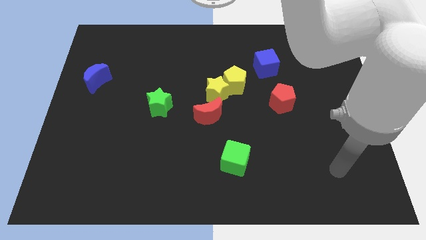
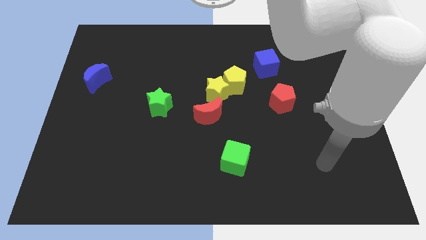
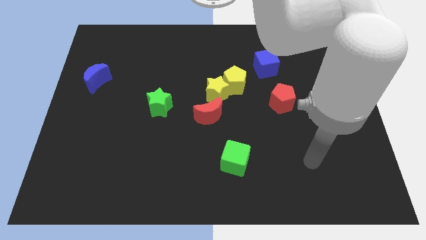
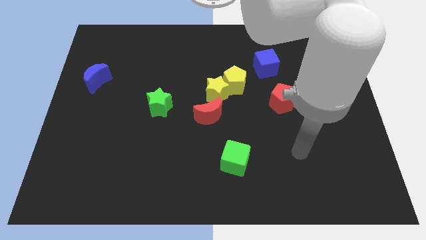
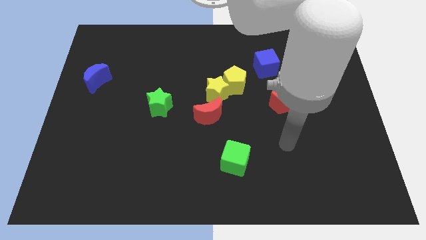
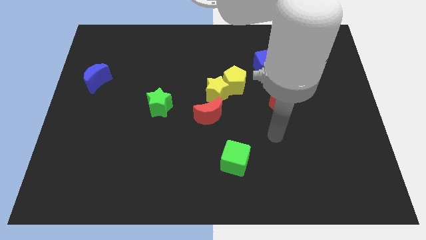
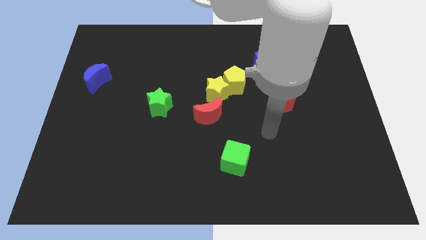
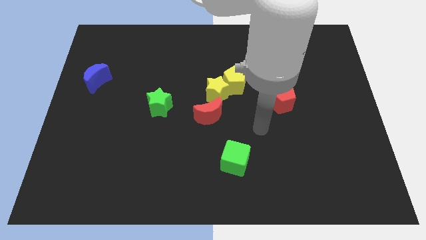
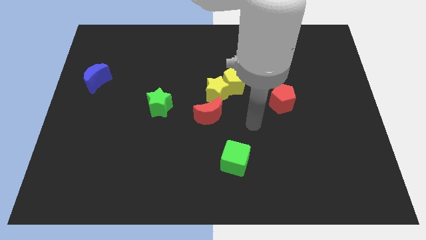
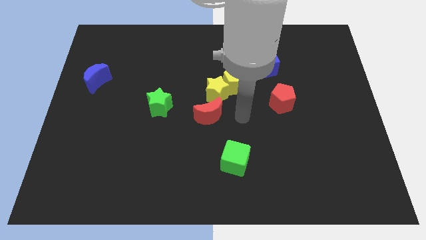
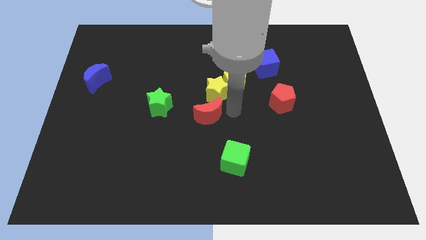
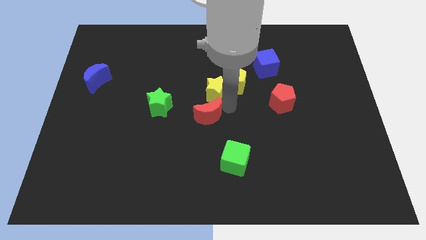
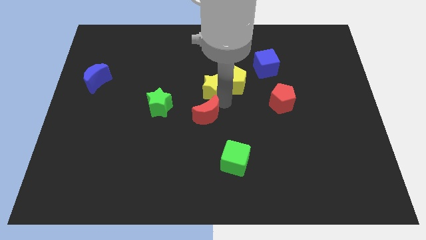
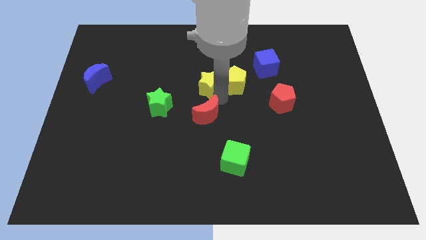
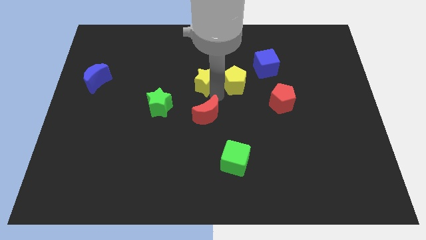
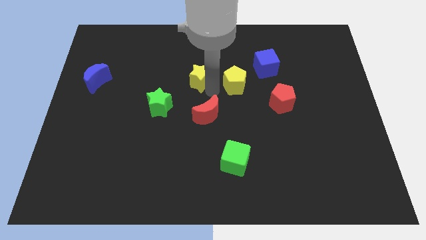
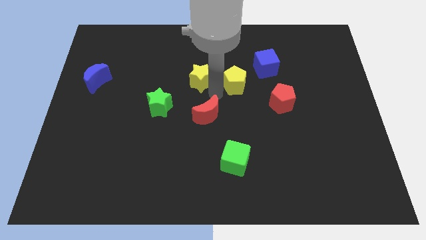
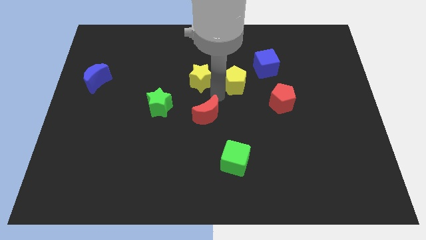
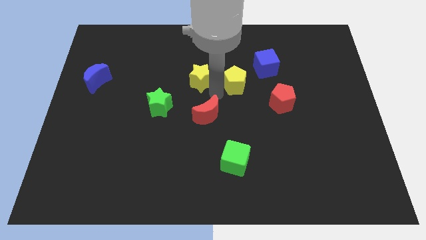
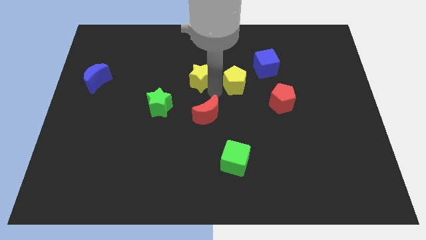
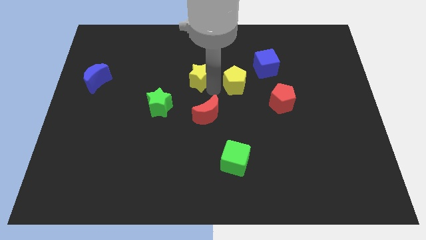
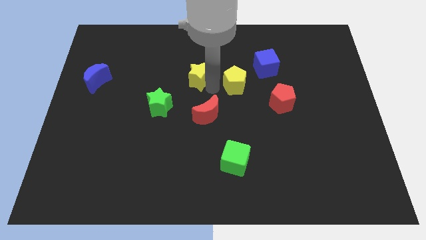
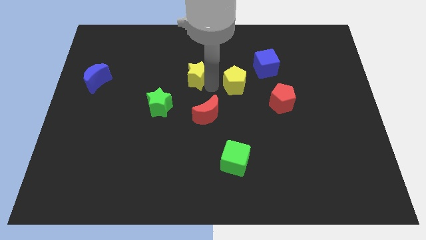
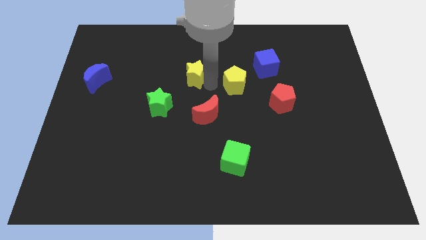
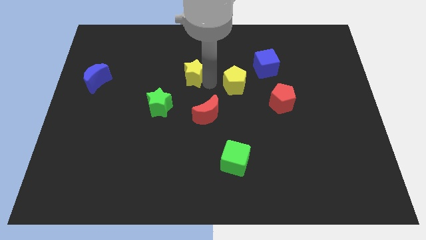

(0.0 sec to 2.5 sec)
separate the yellow star from the yellow pentagon and red moon

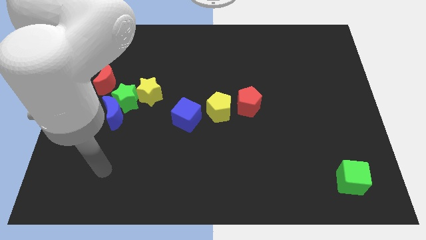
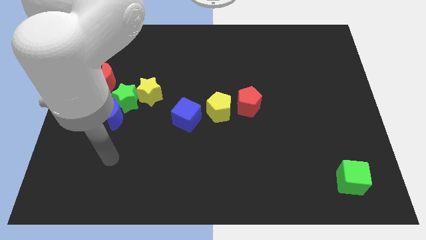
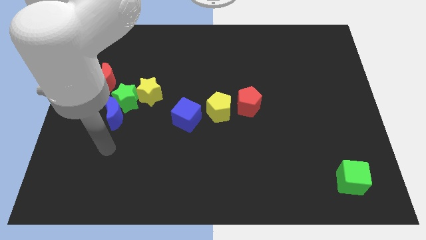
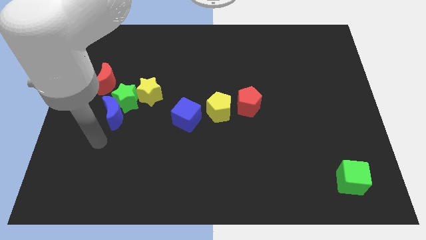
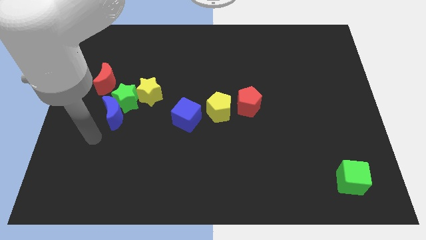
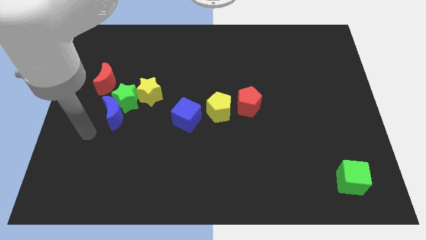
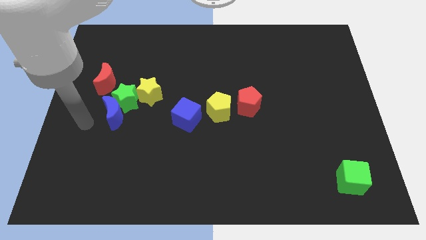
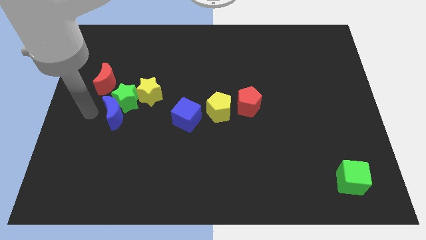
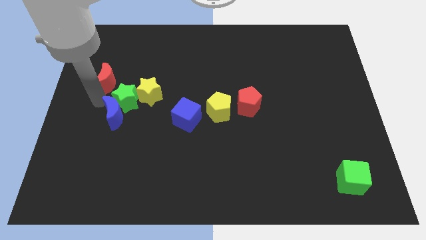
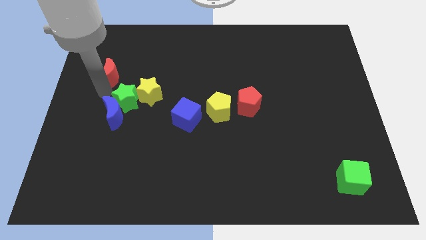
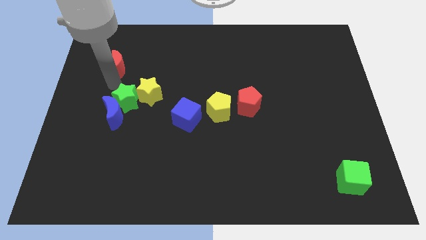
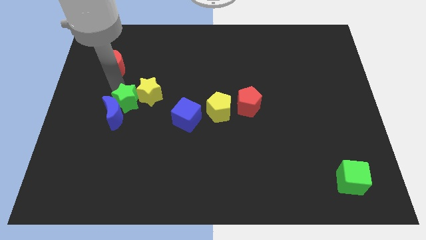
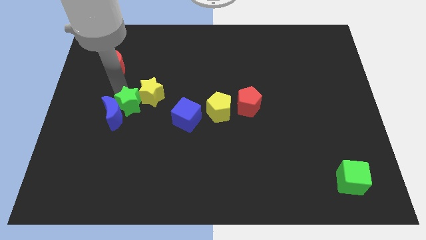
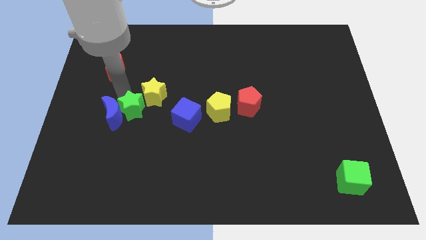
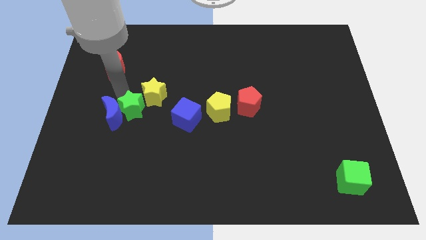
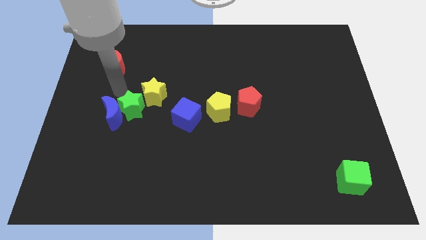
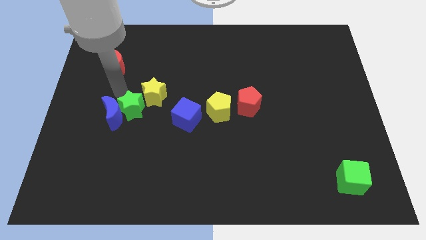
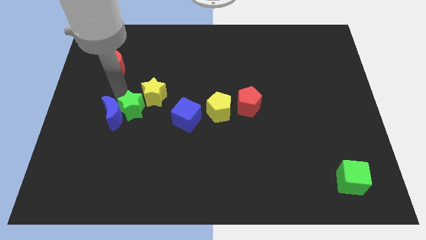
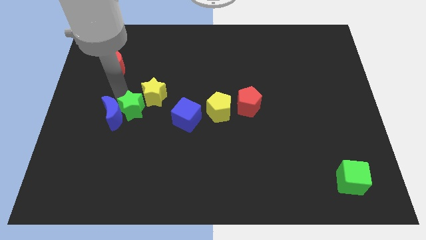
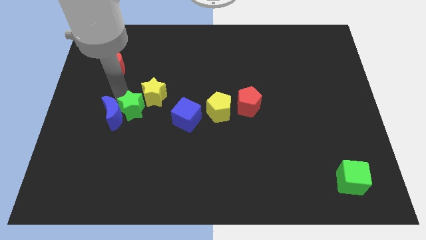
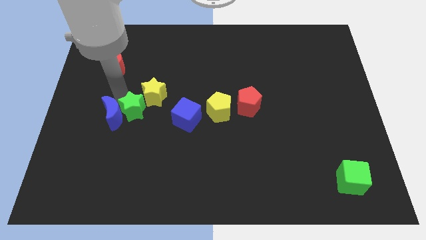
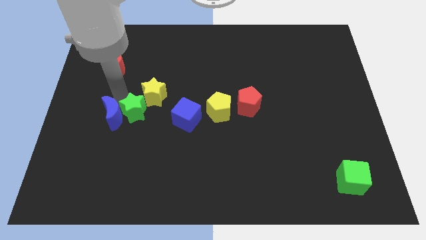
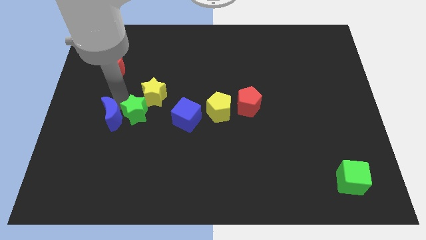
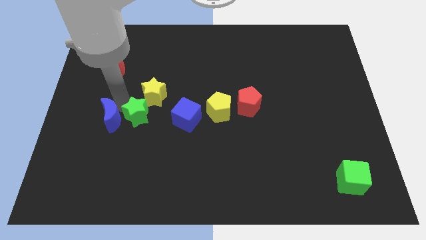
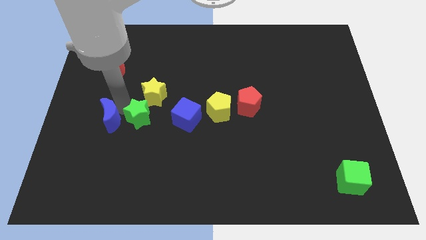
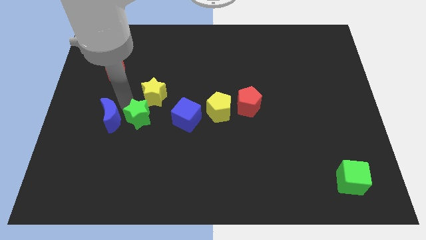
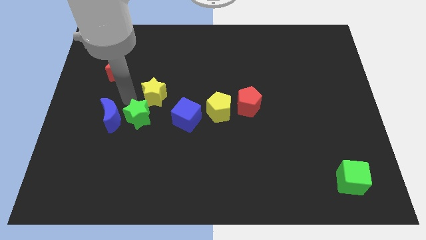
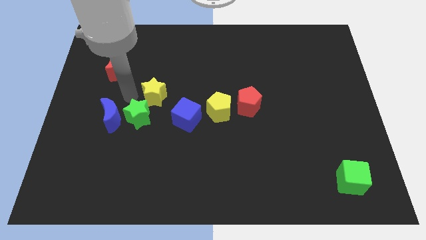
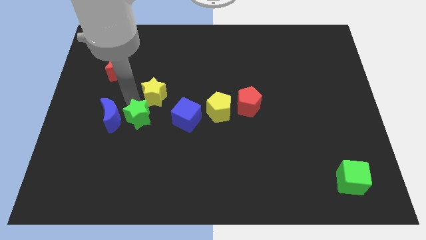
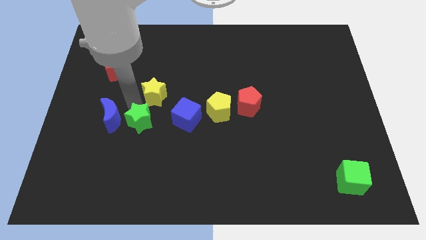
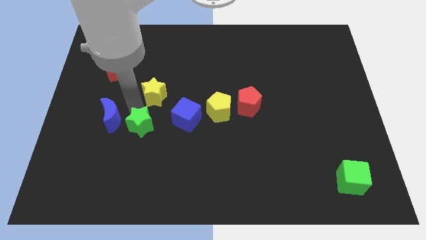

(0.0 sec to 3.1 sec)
move the green star away from the blue moon, yellow star, and red moon

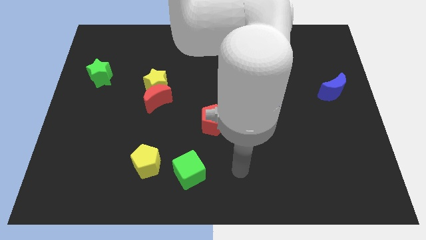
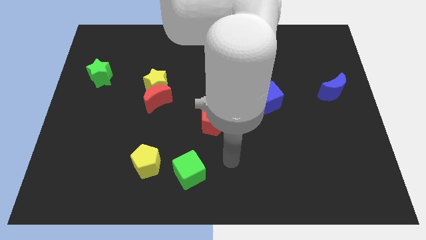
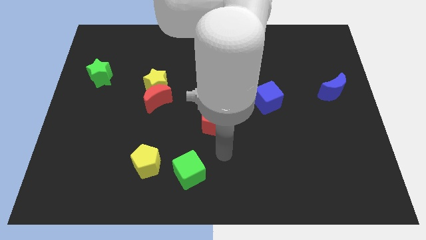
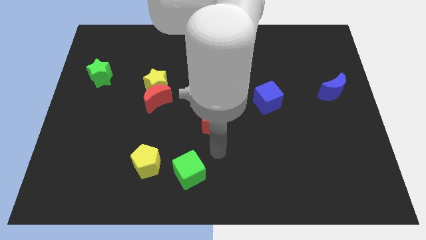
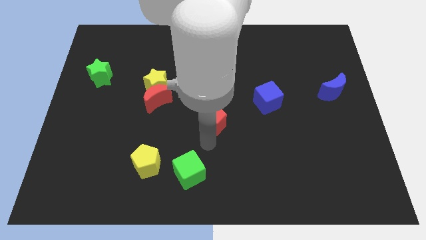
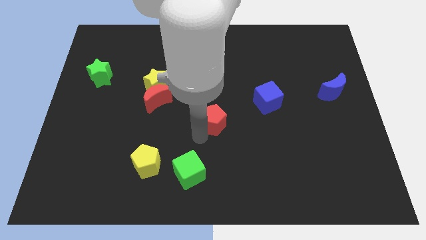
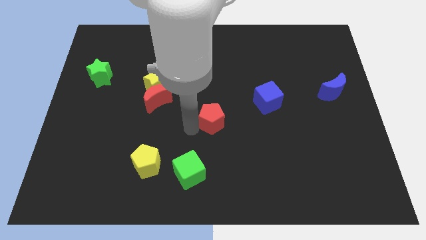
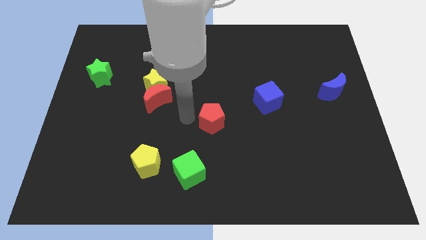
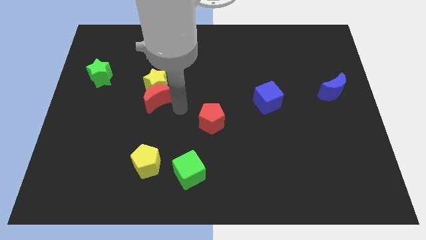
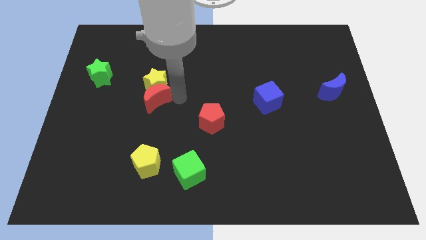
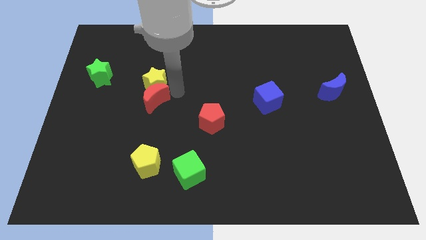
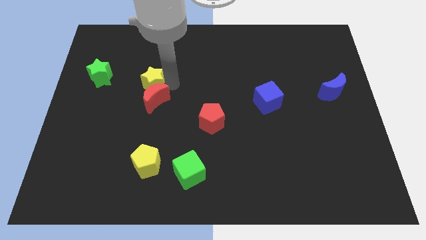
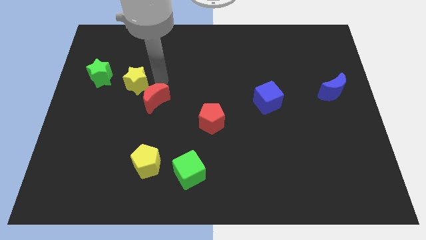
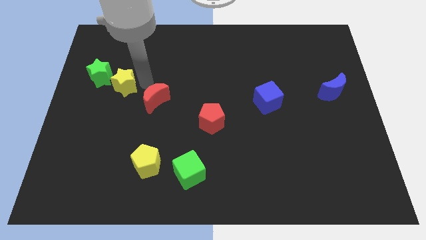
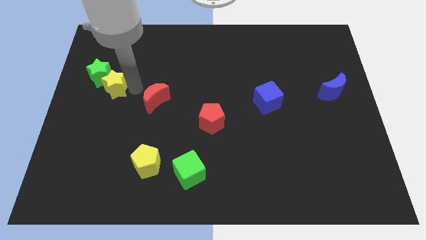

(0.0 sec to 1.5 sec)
pull the red moon apart from the yellow star

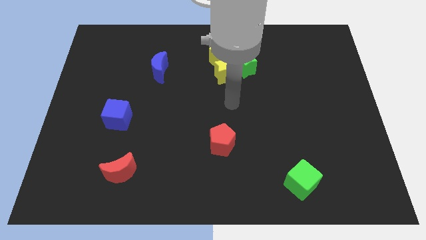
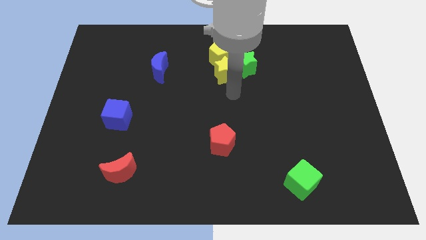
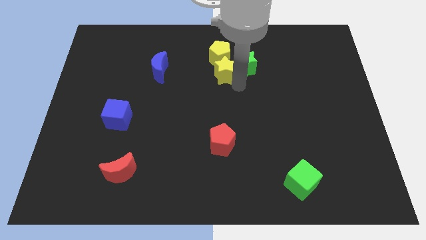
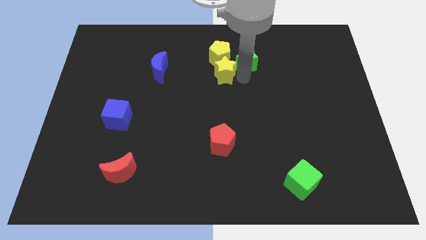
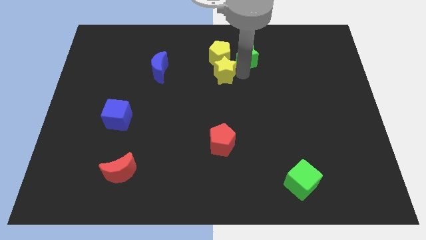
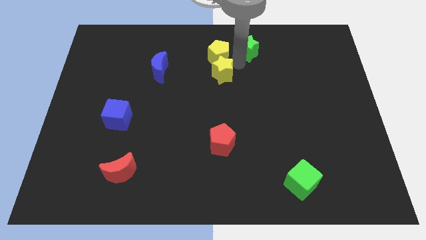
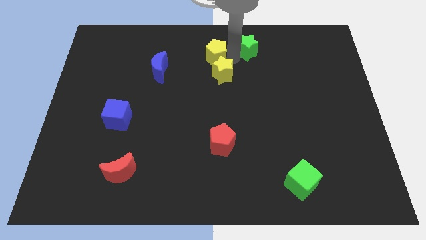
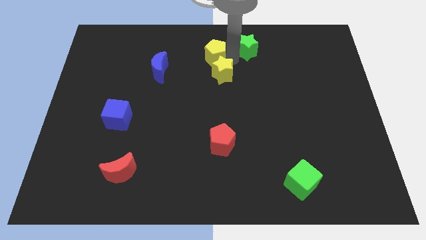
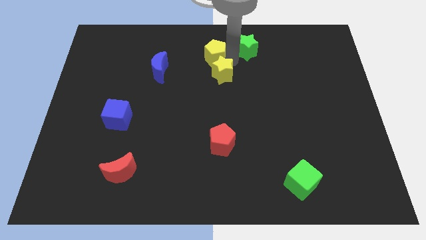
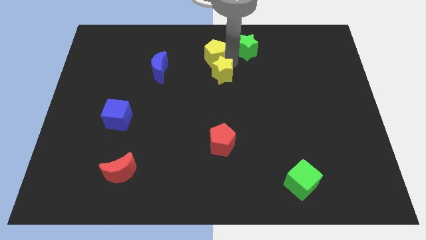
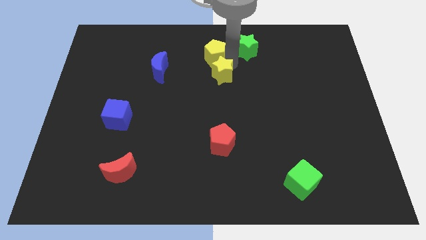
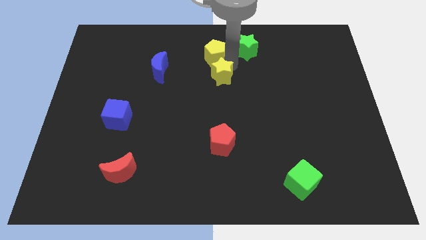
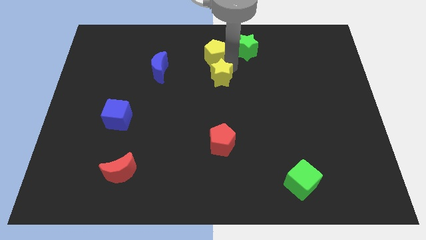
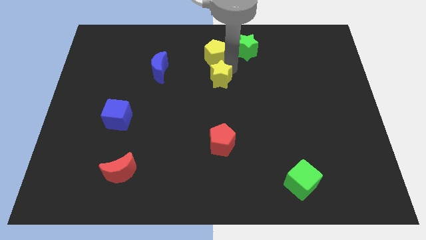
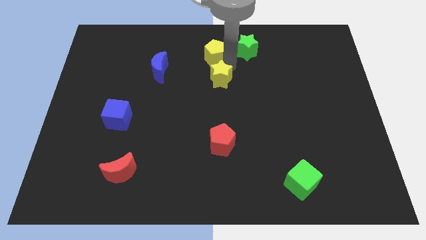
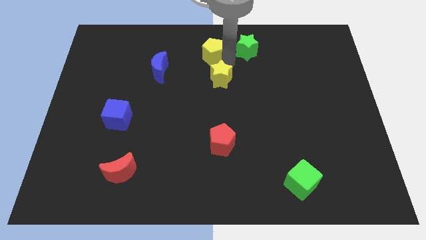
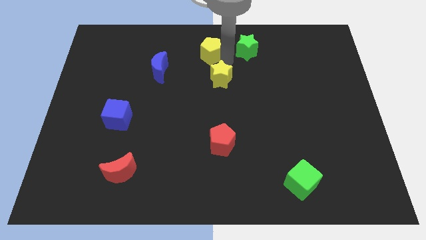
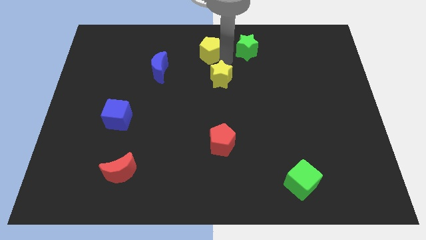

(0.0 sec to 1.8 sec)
separate the yellow star from the green star and yellow pentagon

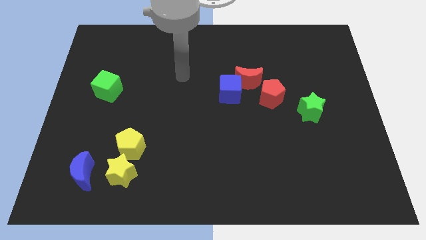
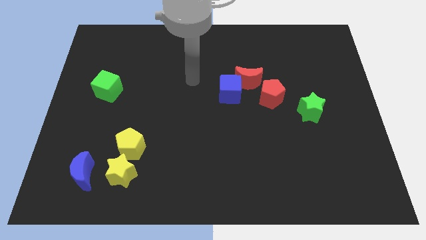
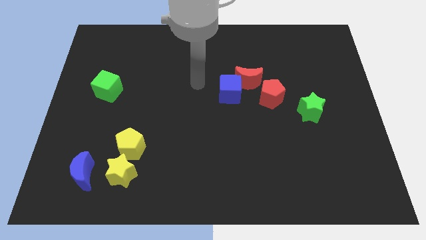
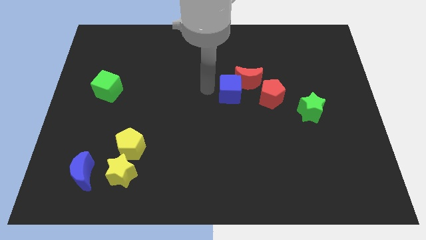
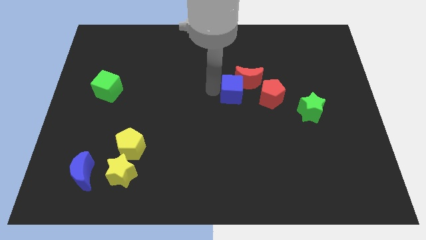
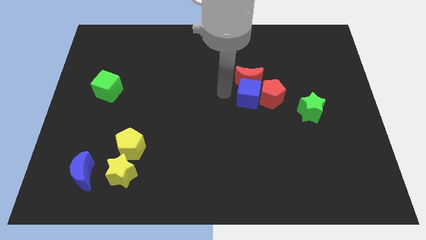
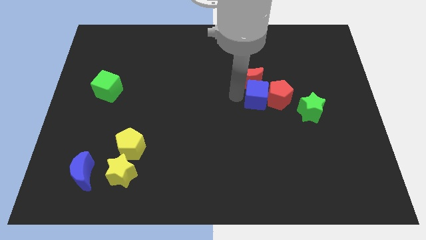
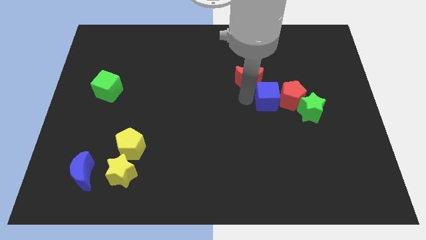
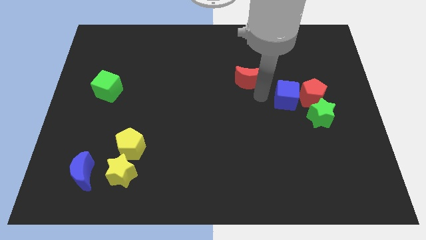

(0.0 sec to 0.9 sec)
move the red moon away from the blue cube and red pentagon
